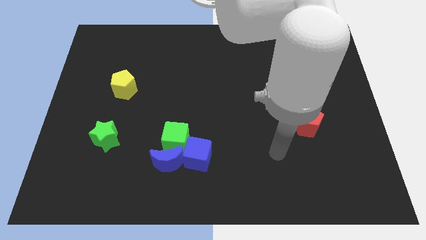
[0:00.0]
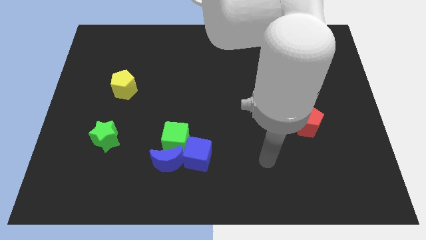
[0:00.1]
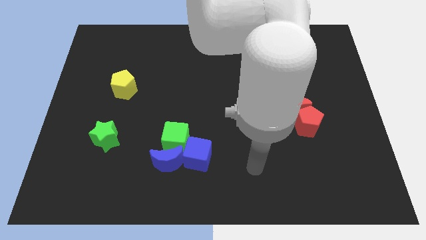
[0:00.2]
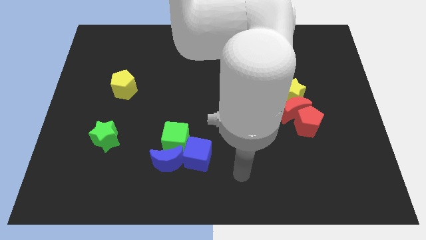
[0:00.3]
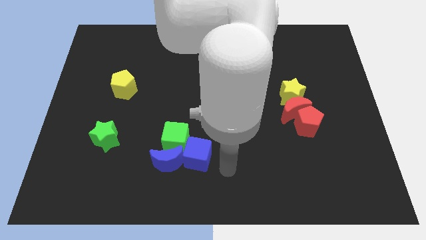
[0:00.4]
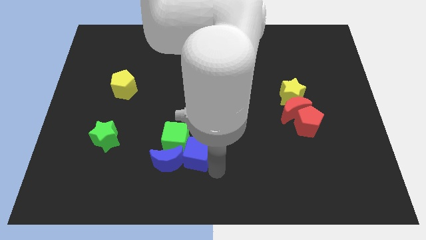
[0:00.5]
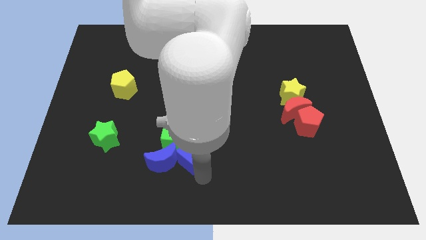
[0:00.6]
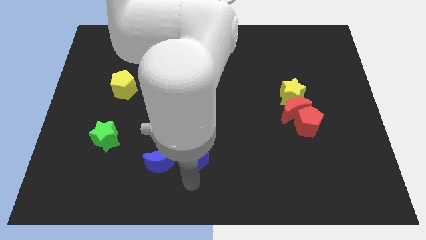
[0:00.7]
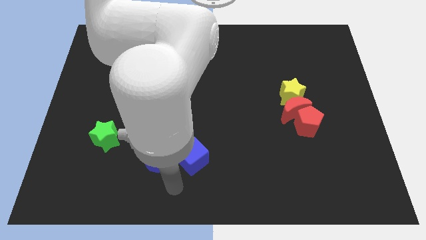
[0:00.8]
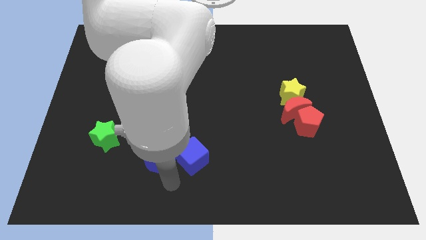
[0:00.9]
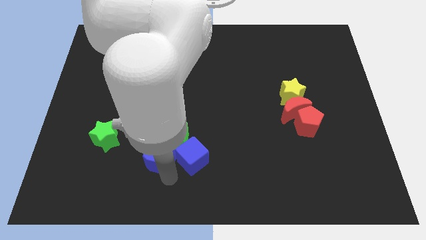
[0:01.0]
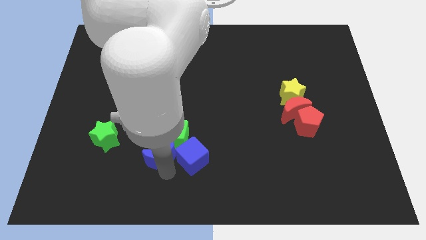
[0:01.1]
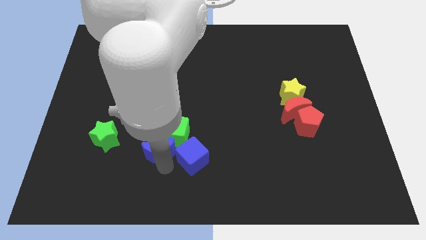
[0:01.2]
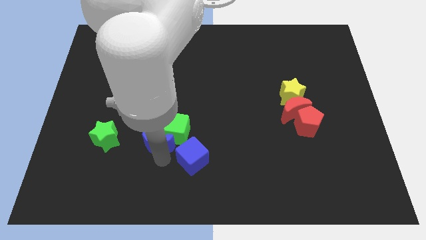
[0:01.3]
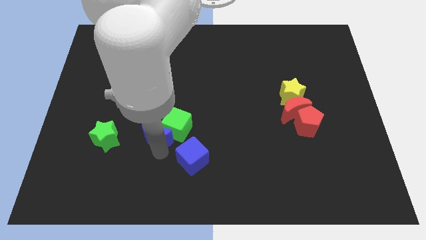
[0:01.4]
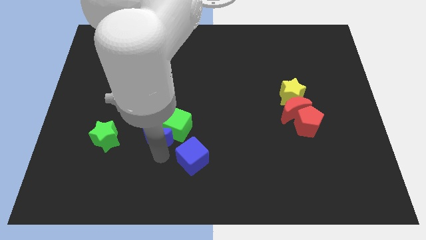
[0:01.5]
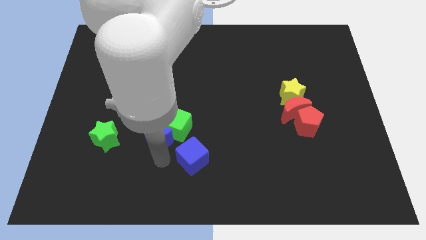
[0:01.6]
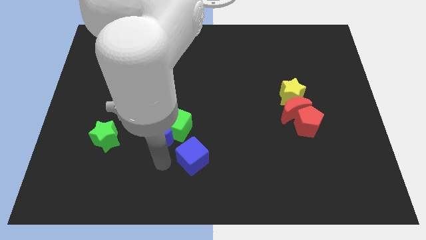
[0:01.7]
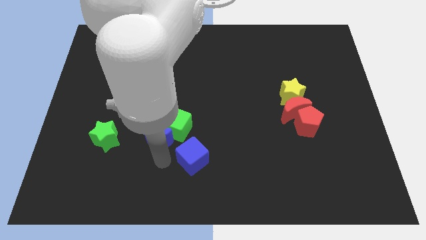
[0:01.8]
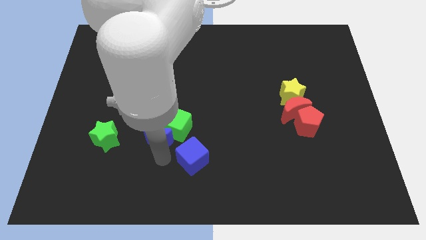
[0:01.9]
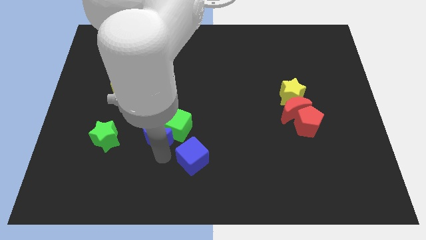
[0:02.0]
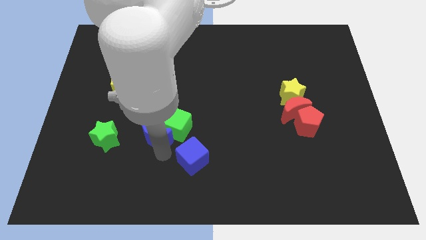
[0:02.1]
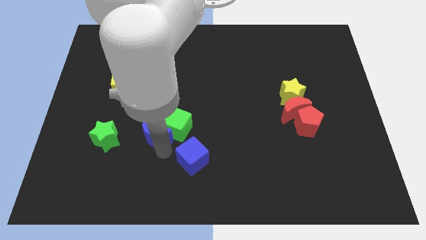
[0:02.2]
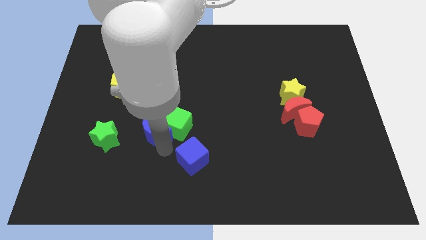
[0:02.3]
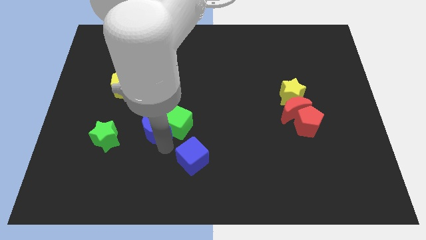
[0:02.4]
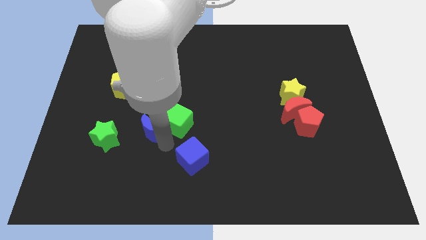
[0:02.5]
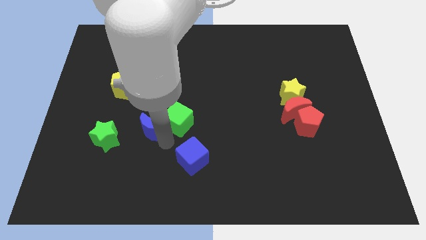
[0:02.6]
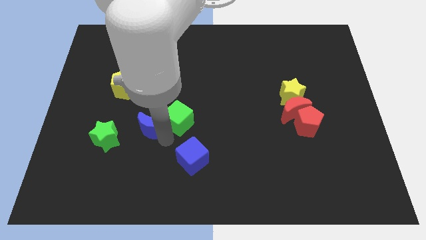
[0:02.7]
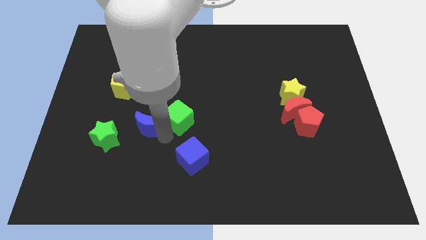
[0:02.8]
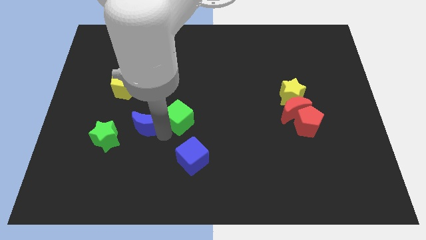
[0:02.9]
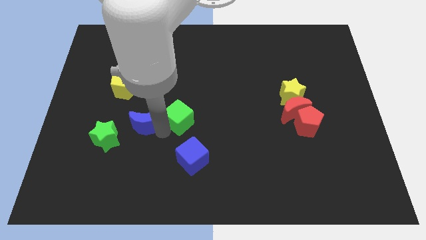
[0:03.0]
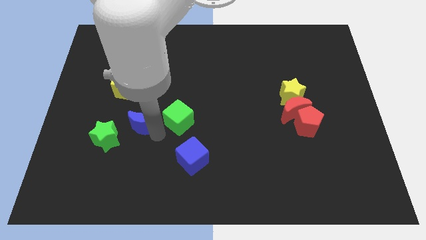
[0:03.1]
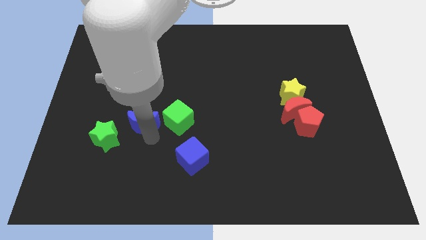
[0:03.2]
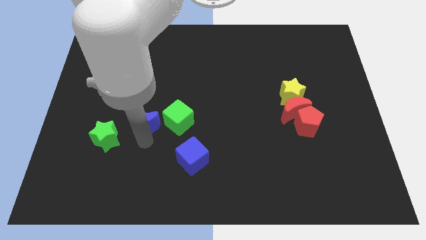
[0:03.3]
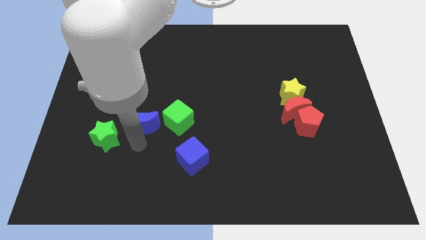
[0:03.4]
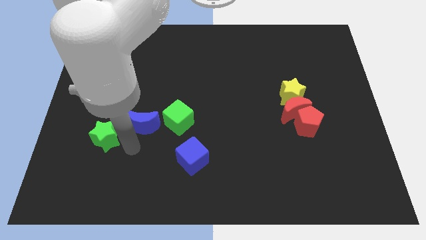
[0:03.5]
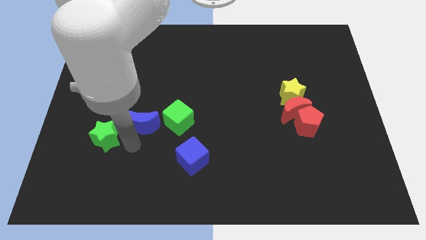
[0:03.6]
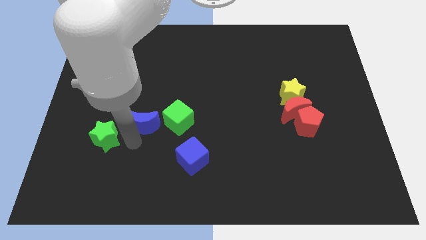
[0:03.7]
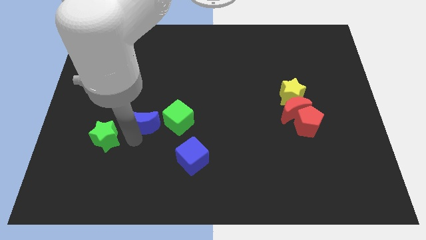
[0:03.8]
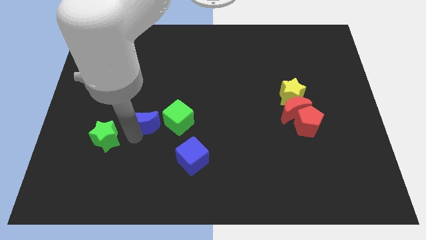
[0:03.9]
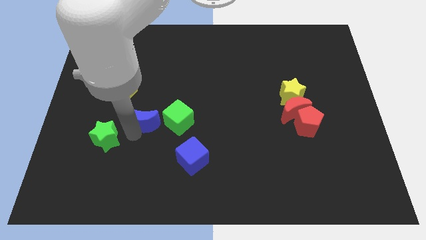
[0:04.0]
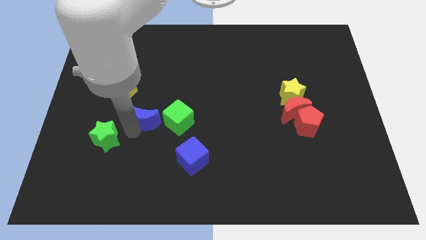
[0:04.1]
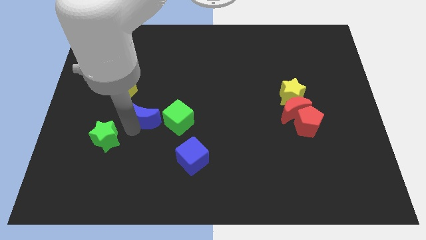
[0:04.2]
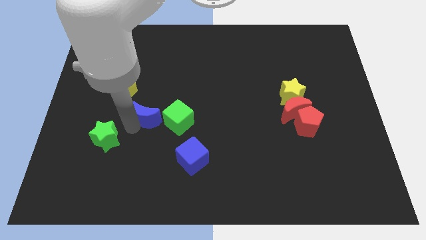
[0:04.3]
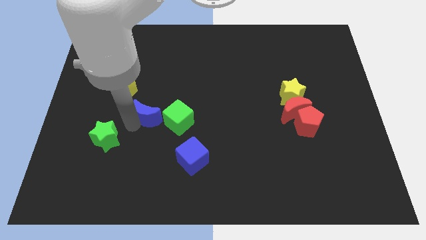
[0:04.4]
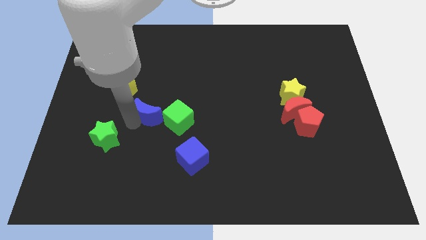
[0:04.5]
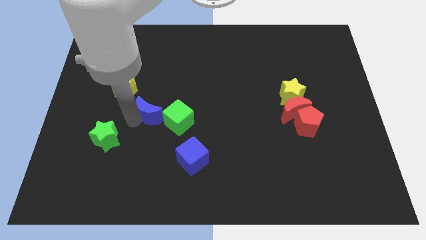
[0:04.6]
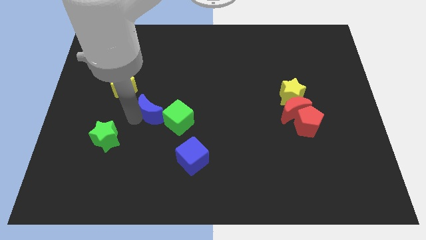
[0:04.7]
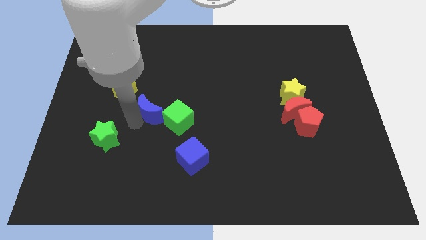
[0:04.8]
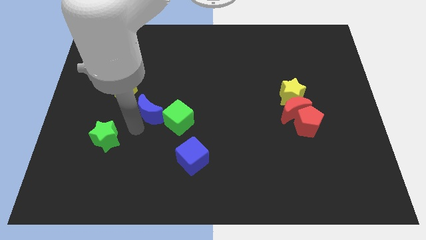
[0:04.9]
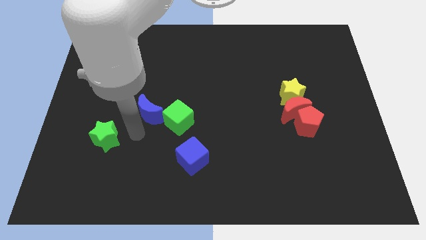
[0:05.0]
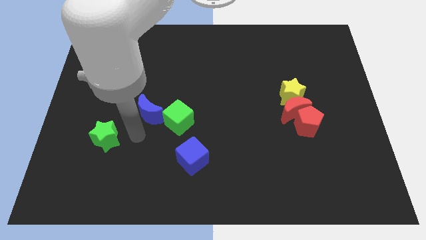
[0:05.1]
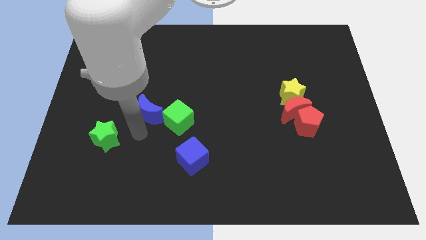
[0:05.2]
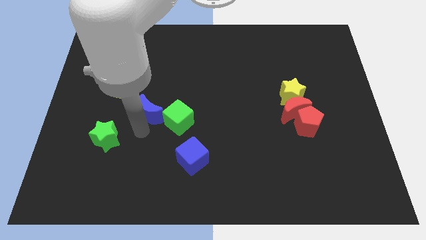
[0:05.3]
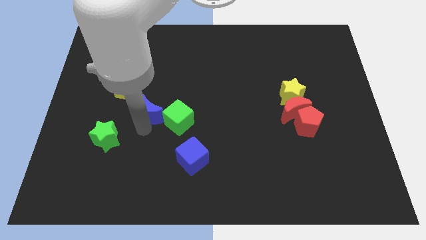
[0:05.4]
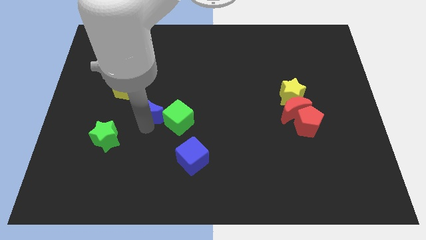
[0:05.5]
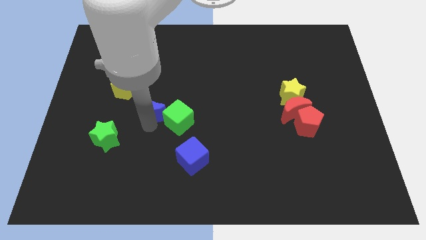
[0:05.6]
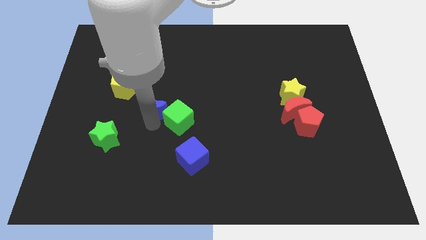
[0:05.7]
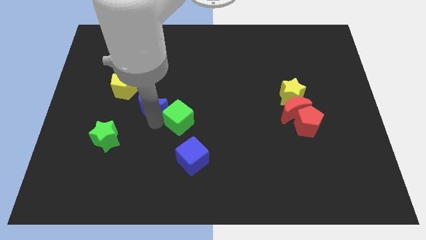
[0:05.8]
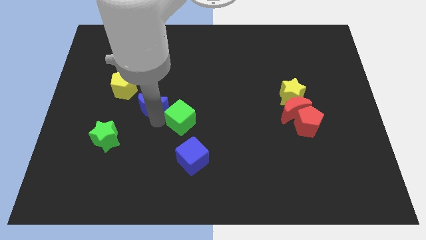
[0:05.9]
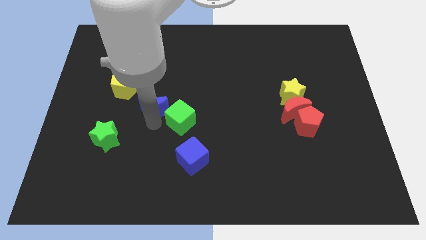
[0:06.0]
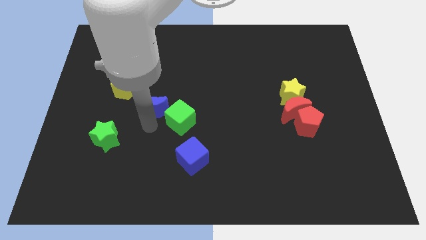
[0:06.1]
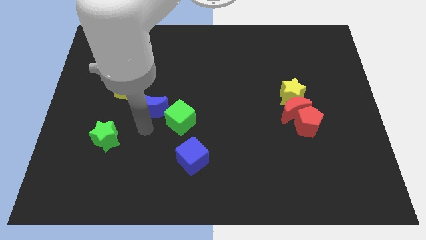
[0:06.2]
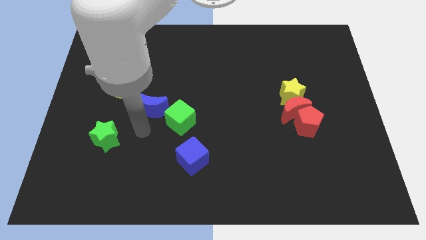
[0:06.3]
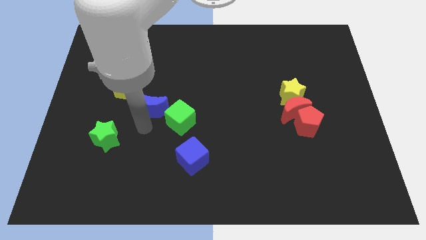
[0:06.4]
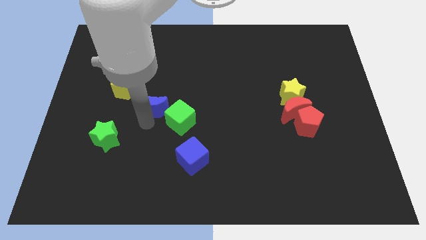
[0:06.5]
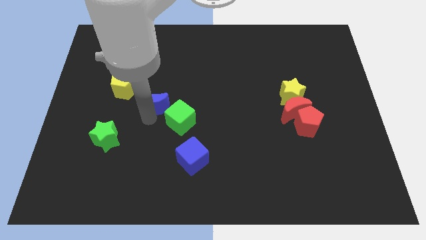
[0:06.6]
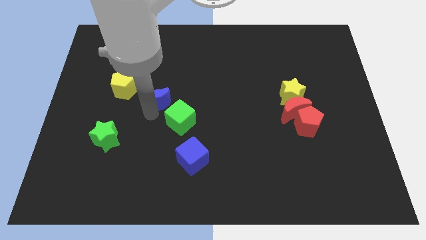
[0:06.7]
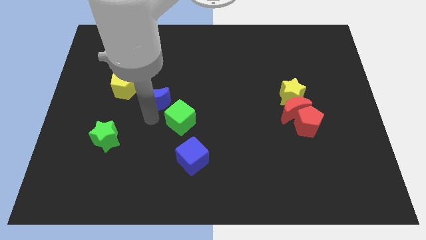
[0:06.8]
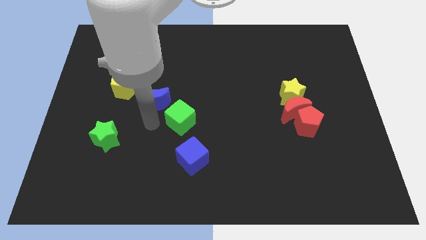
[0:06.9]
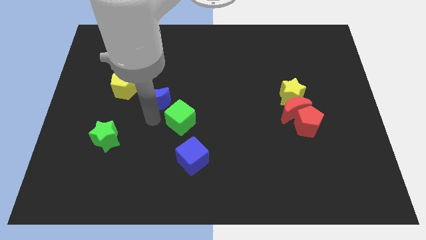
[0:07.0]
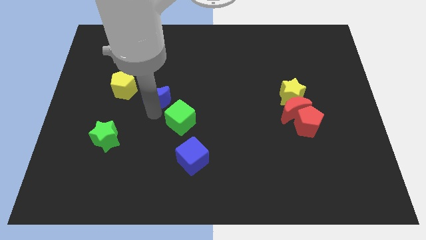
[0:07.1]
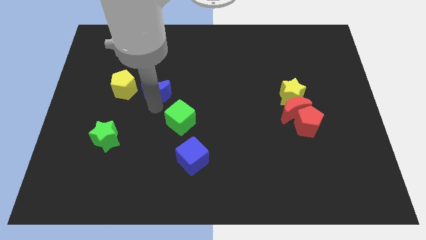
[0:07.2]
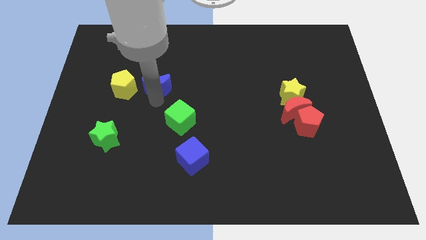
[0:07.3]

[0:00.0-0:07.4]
push the blue moon up
